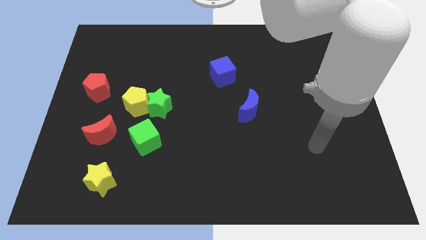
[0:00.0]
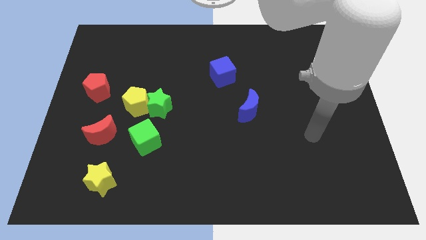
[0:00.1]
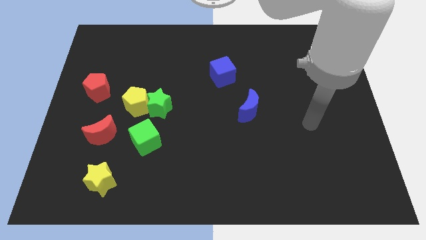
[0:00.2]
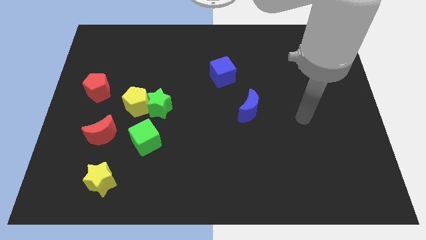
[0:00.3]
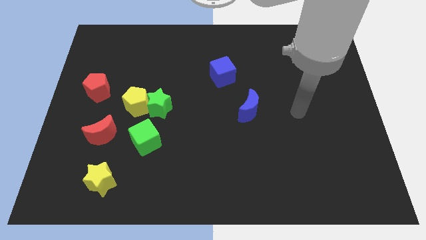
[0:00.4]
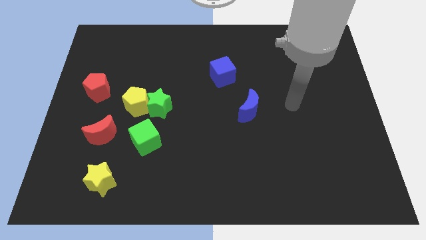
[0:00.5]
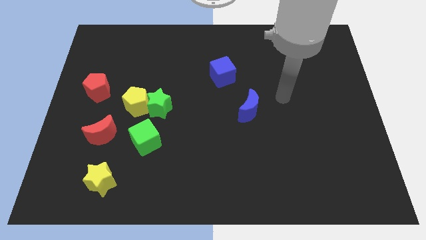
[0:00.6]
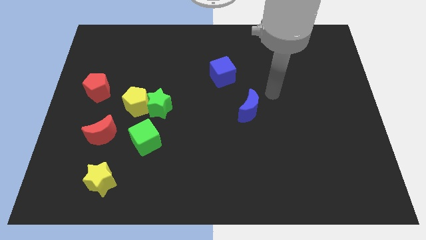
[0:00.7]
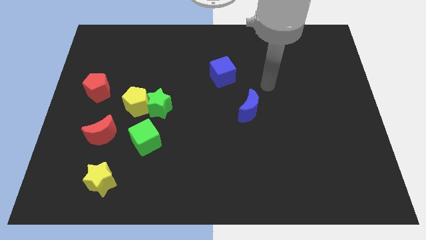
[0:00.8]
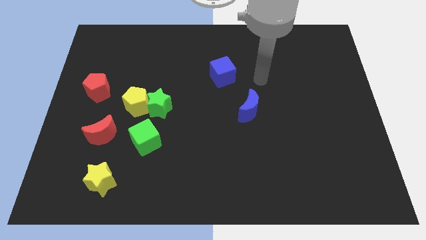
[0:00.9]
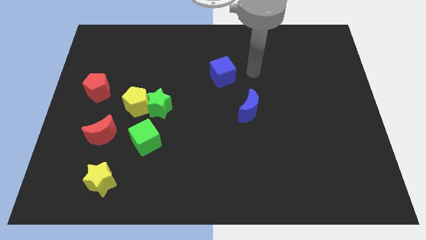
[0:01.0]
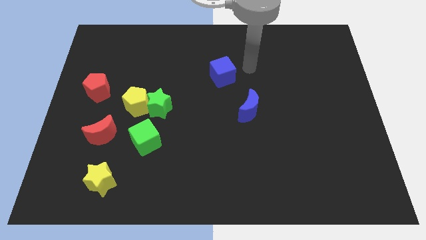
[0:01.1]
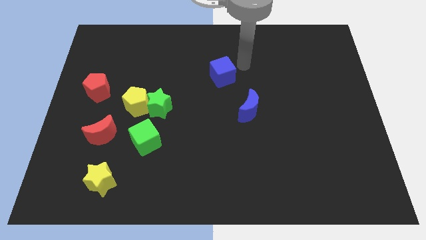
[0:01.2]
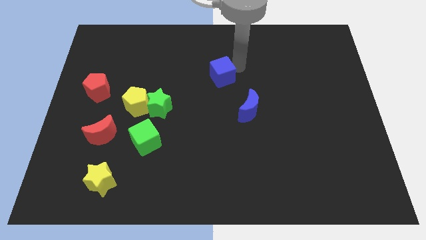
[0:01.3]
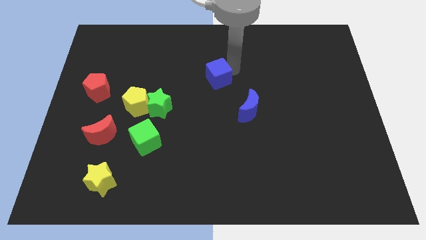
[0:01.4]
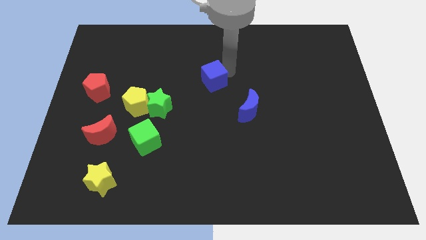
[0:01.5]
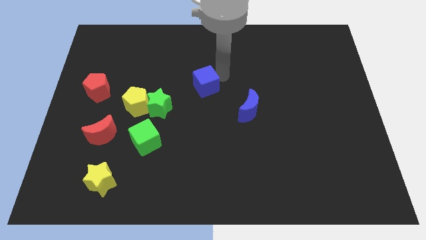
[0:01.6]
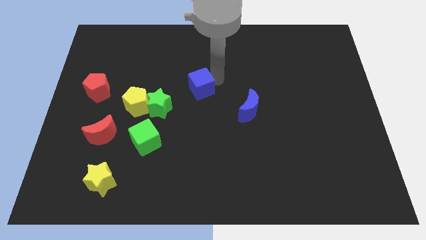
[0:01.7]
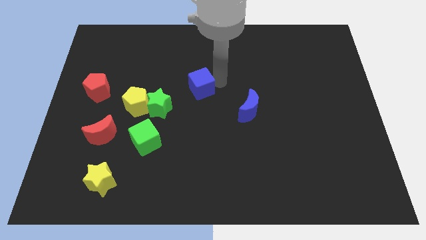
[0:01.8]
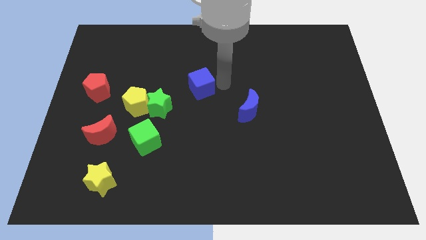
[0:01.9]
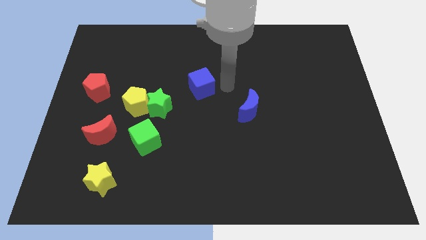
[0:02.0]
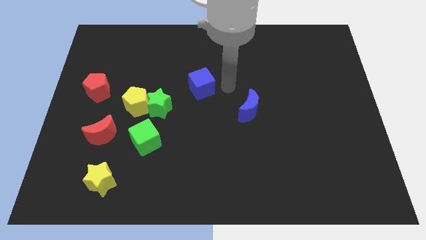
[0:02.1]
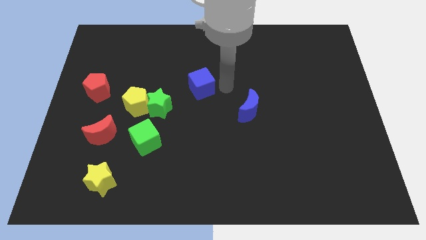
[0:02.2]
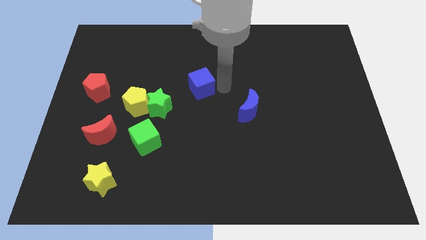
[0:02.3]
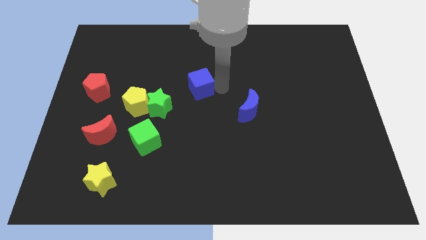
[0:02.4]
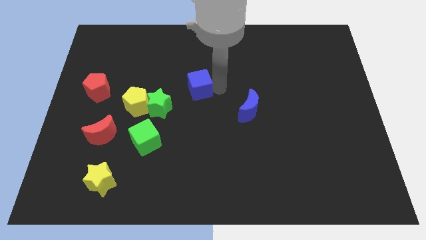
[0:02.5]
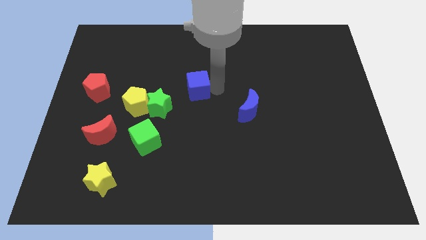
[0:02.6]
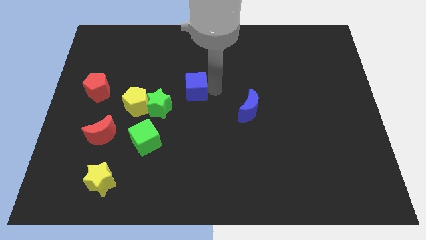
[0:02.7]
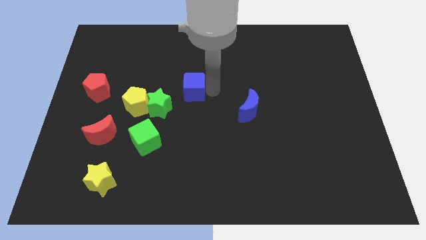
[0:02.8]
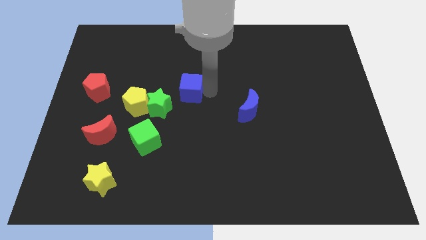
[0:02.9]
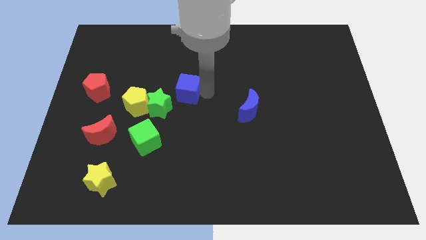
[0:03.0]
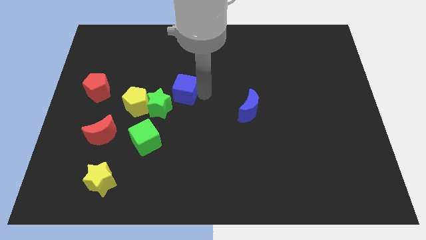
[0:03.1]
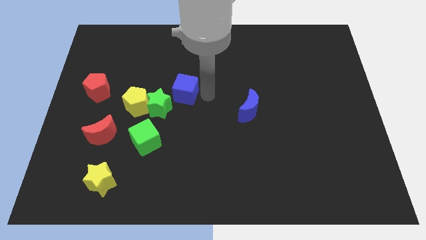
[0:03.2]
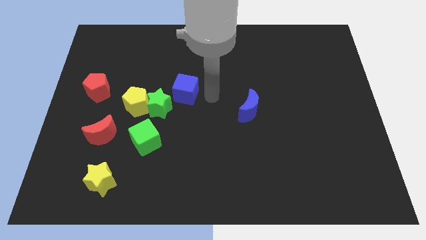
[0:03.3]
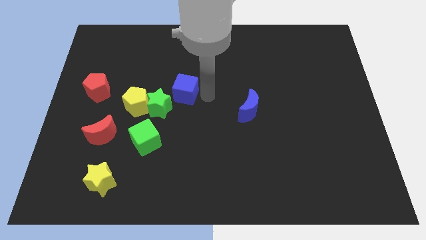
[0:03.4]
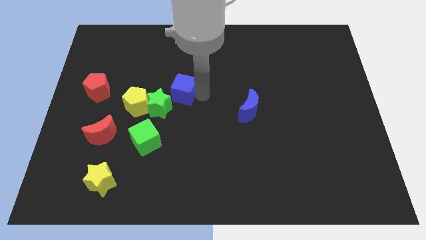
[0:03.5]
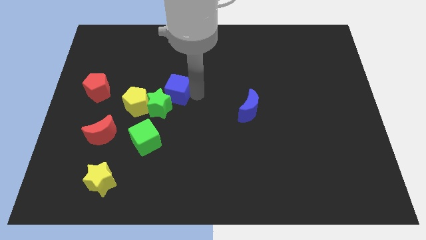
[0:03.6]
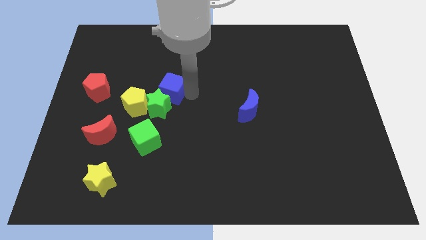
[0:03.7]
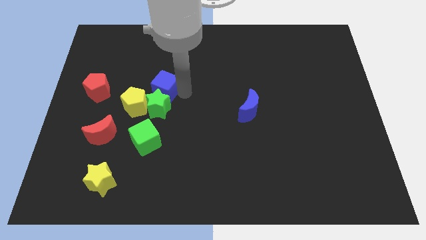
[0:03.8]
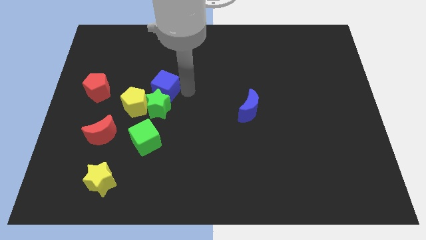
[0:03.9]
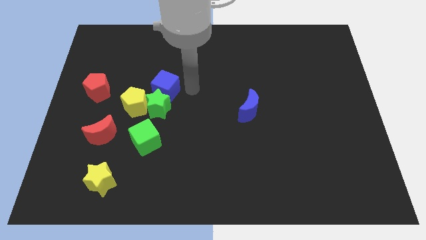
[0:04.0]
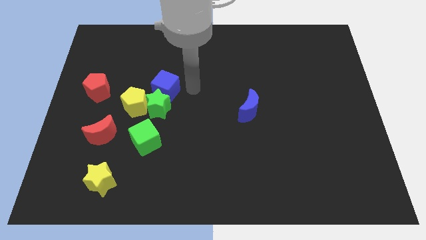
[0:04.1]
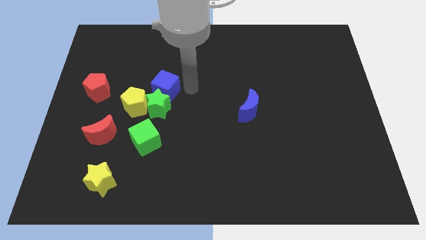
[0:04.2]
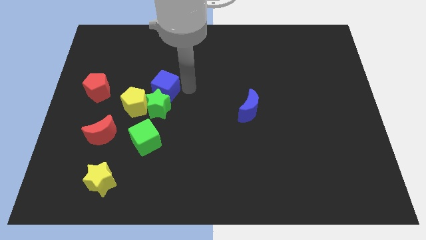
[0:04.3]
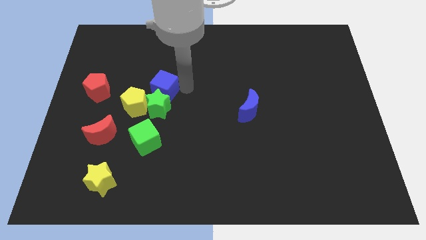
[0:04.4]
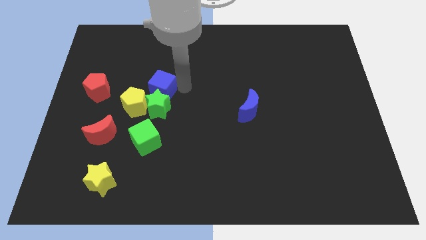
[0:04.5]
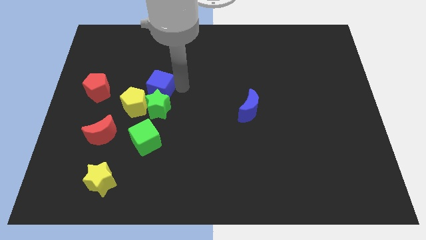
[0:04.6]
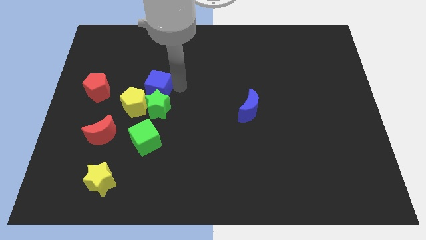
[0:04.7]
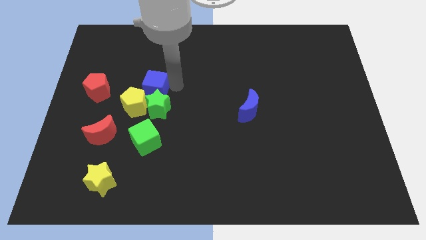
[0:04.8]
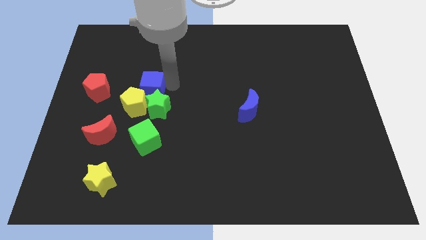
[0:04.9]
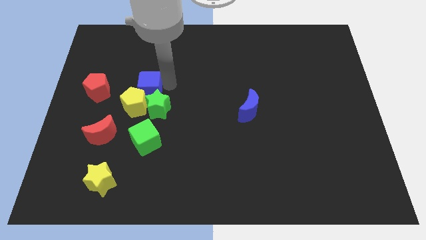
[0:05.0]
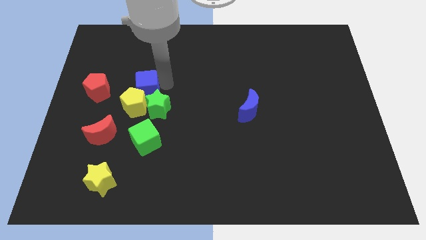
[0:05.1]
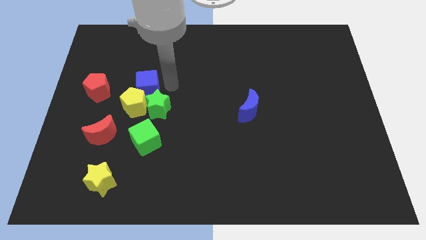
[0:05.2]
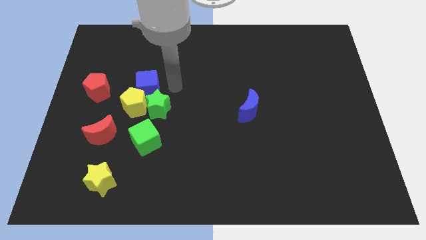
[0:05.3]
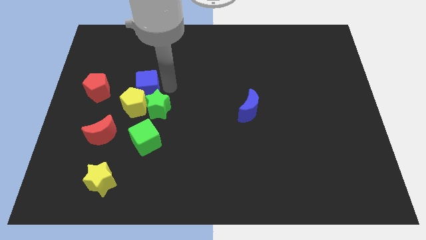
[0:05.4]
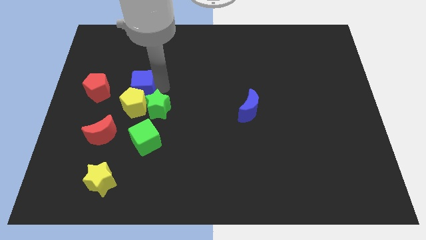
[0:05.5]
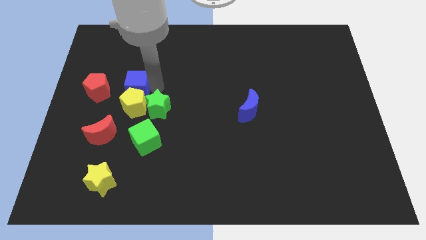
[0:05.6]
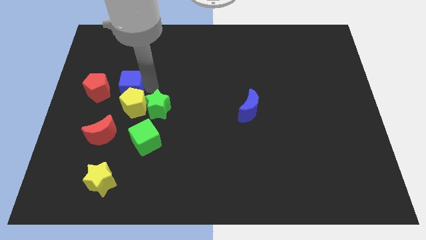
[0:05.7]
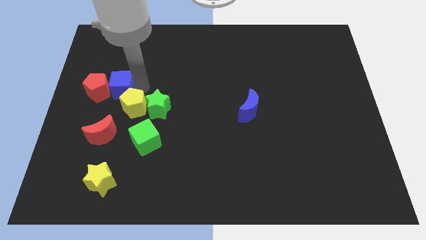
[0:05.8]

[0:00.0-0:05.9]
put the blue cube close to the red pentagon

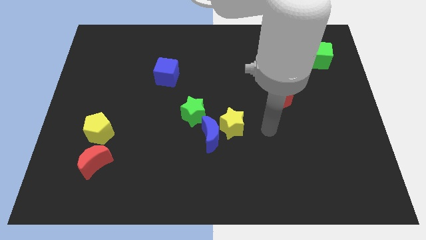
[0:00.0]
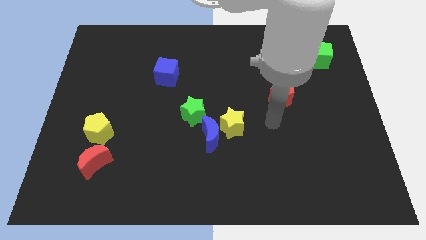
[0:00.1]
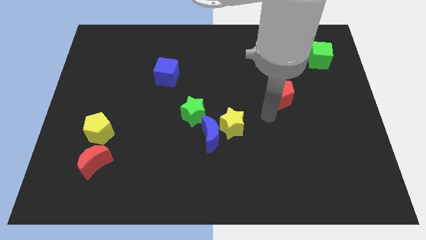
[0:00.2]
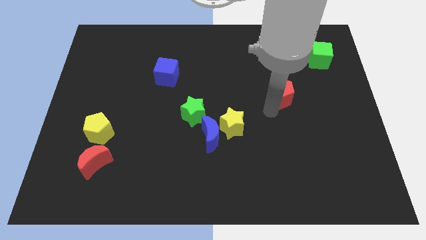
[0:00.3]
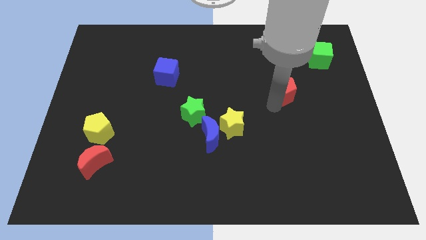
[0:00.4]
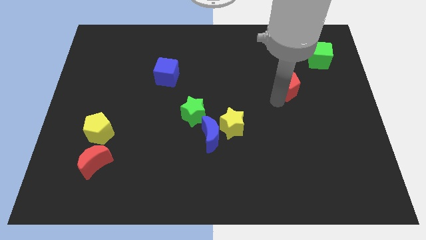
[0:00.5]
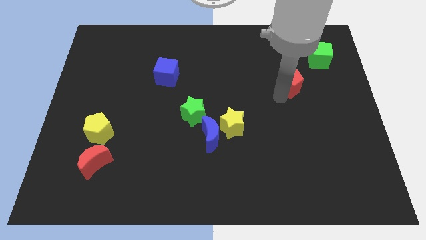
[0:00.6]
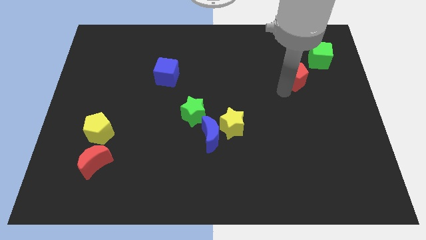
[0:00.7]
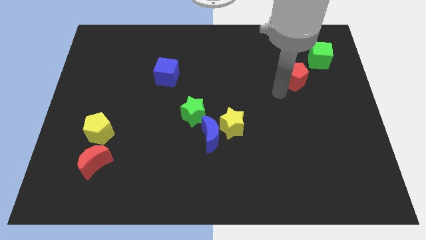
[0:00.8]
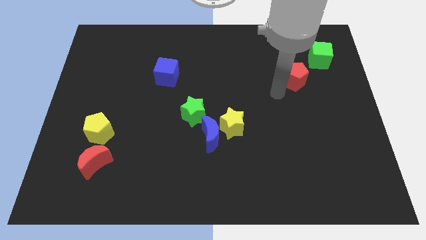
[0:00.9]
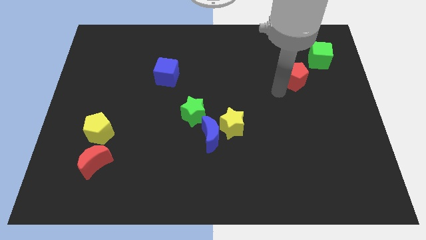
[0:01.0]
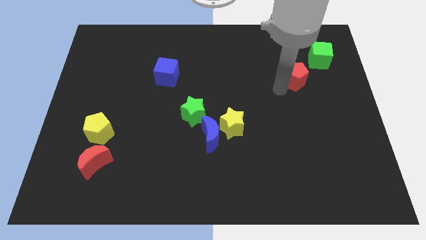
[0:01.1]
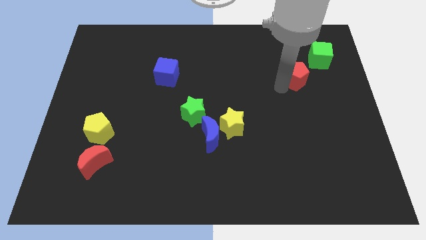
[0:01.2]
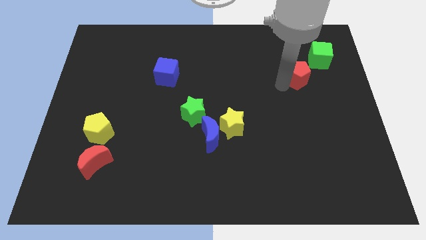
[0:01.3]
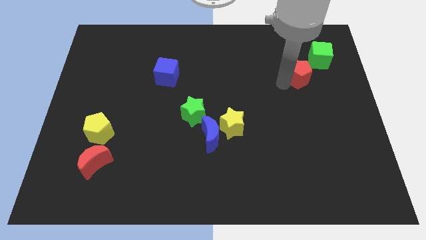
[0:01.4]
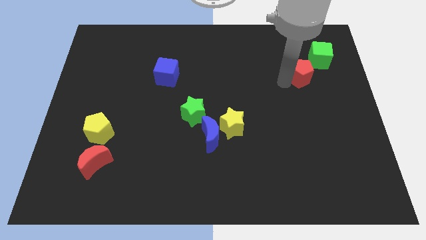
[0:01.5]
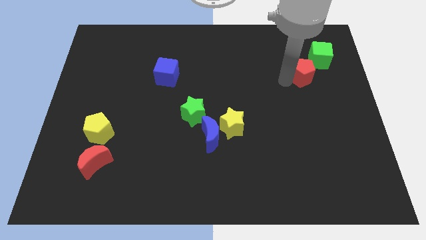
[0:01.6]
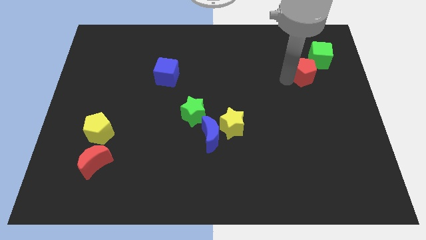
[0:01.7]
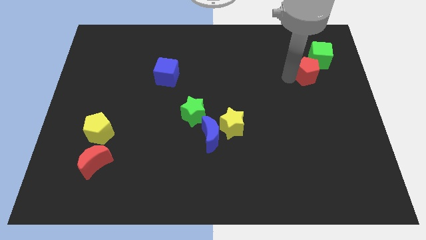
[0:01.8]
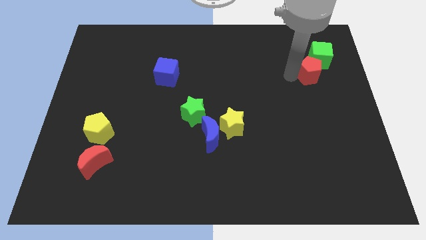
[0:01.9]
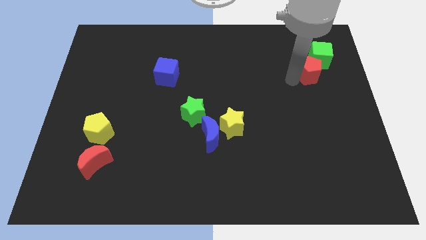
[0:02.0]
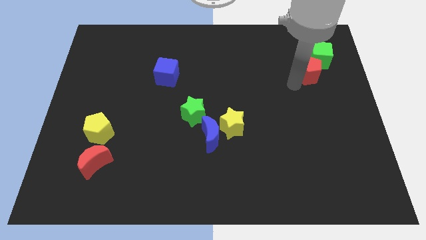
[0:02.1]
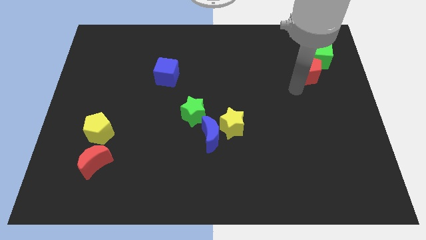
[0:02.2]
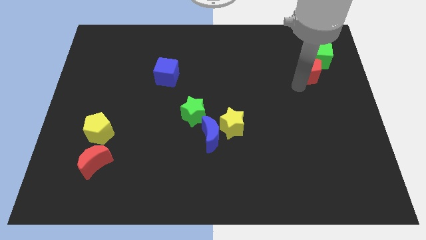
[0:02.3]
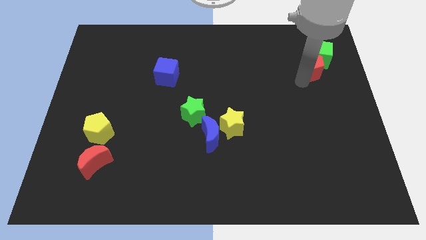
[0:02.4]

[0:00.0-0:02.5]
push the red pentagon close to the green cube
